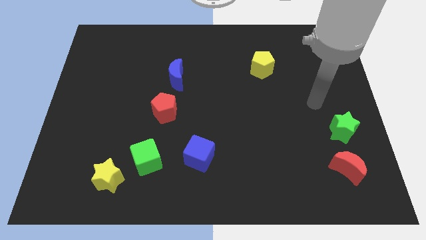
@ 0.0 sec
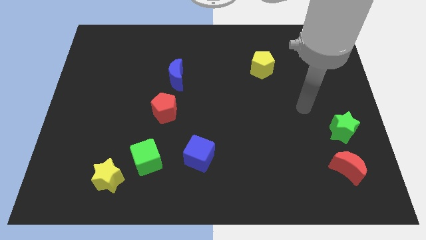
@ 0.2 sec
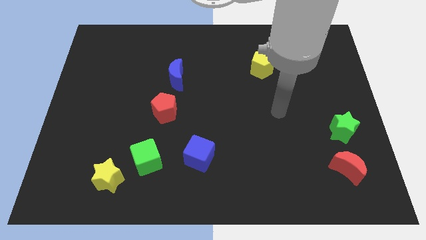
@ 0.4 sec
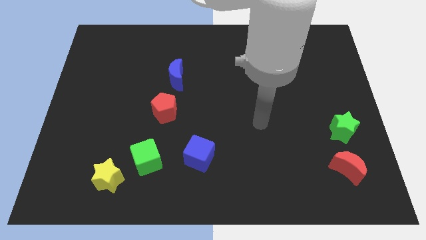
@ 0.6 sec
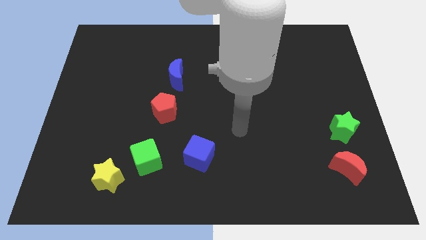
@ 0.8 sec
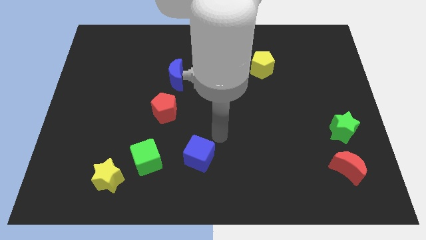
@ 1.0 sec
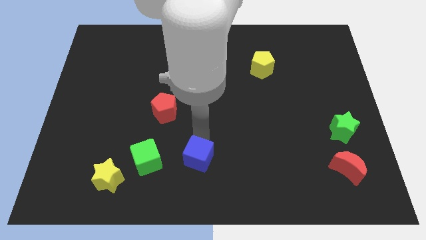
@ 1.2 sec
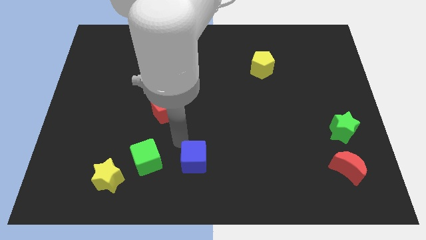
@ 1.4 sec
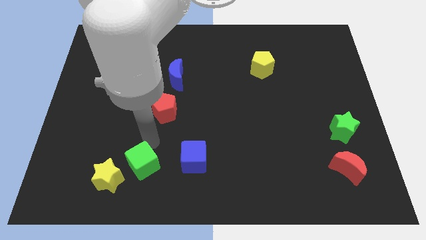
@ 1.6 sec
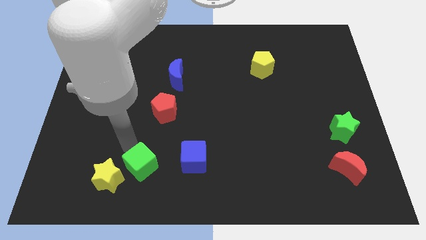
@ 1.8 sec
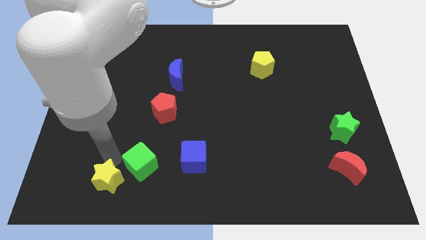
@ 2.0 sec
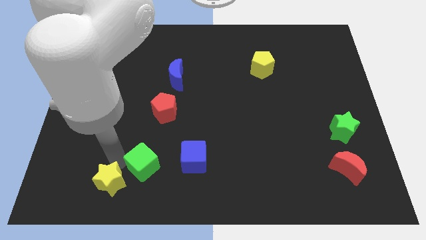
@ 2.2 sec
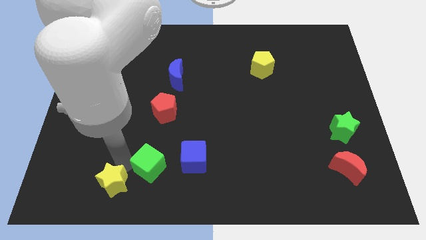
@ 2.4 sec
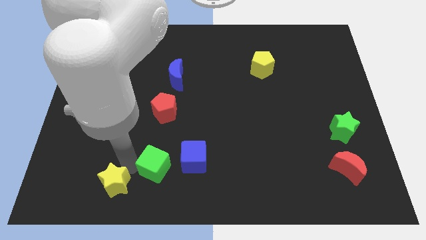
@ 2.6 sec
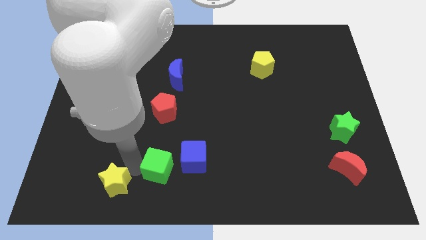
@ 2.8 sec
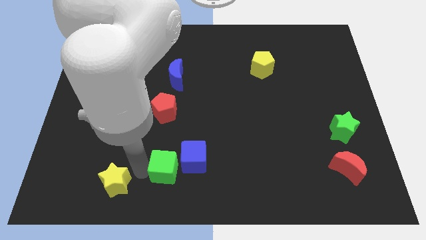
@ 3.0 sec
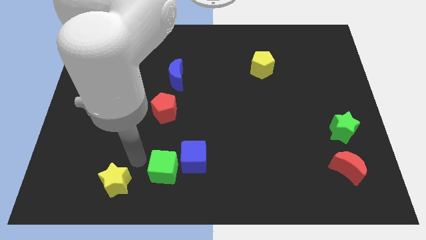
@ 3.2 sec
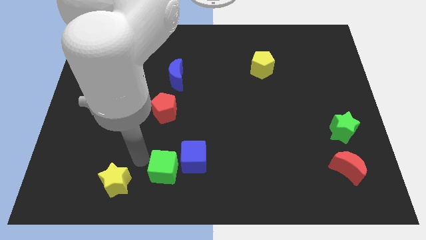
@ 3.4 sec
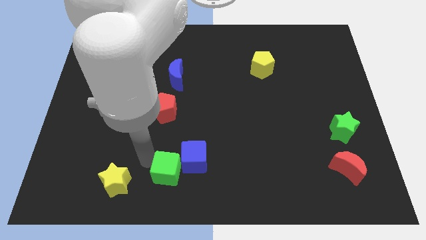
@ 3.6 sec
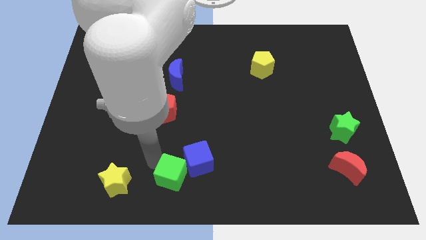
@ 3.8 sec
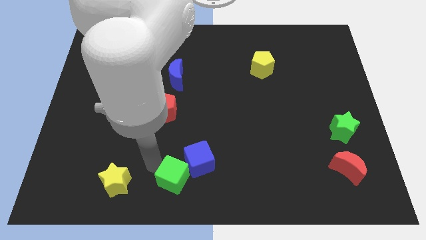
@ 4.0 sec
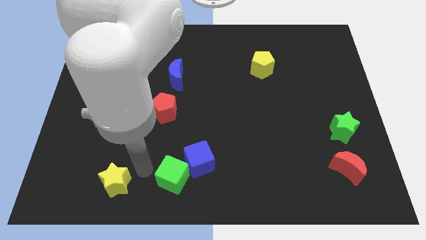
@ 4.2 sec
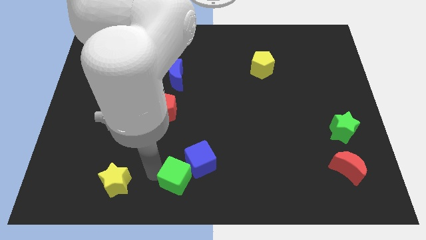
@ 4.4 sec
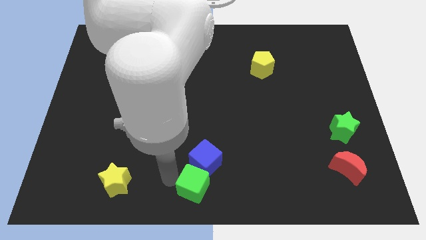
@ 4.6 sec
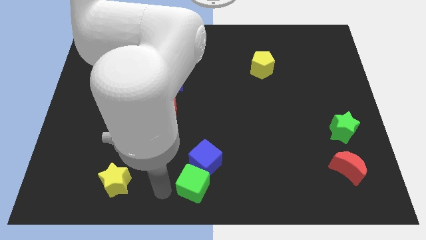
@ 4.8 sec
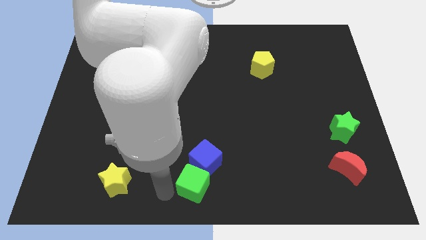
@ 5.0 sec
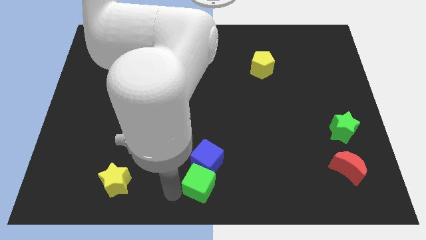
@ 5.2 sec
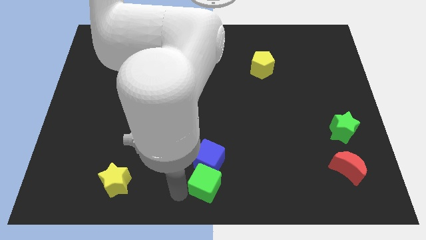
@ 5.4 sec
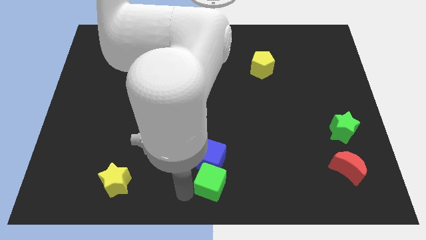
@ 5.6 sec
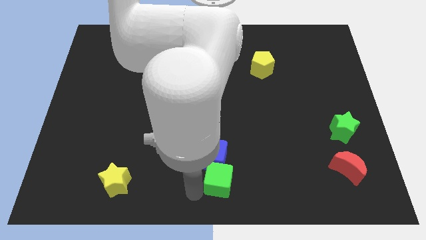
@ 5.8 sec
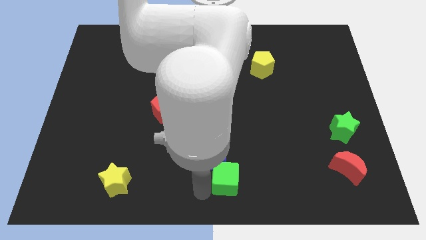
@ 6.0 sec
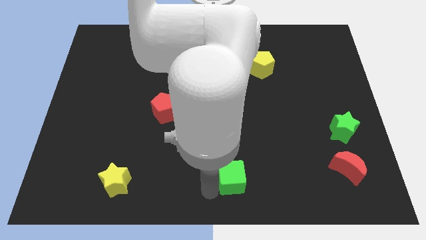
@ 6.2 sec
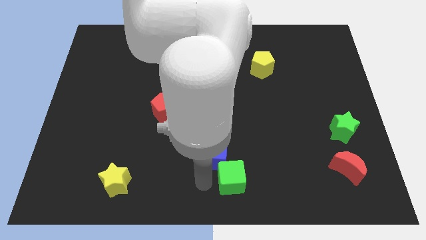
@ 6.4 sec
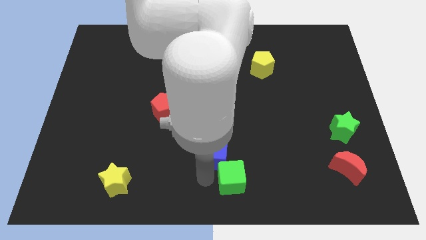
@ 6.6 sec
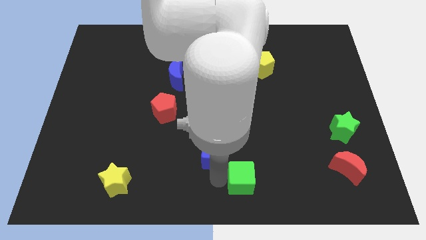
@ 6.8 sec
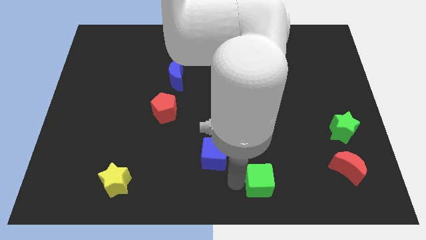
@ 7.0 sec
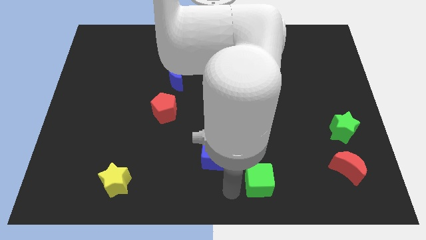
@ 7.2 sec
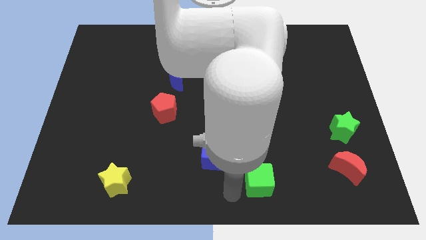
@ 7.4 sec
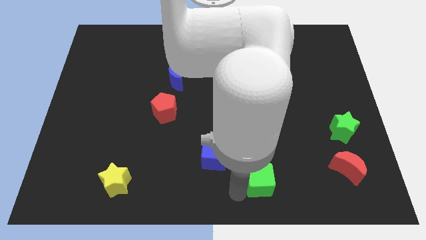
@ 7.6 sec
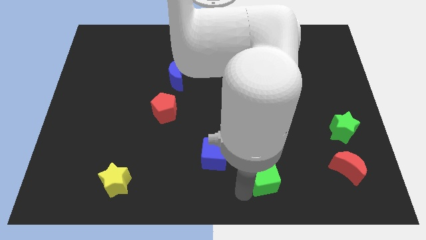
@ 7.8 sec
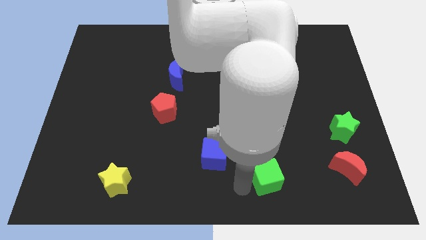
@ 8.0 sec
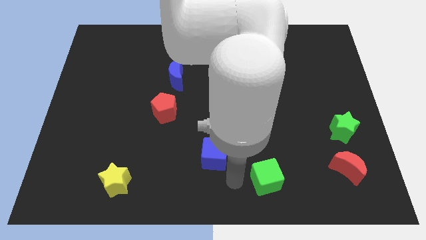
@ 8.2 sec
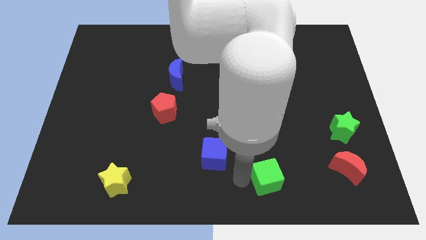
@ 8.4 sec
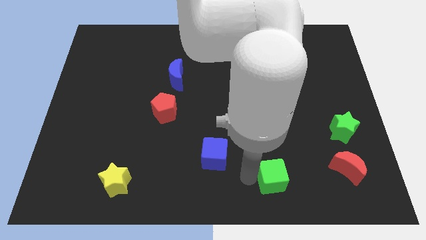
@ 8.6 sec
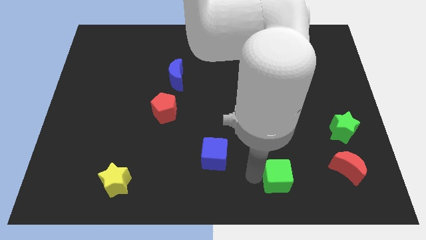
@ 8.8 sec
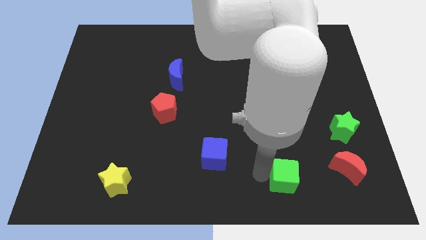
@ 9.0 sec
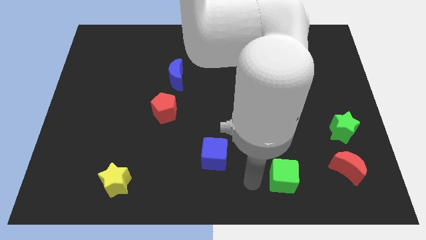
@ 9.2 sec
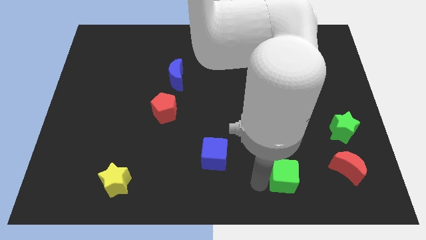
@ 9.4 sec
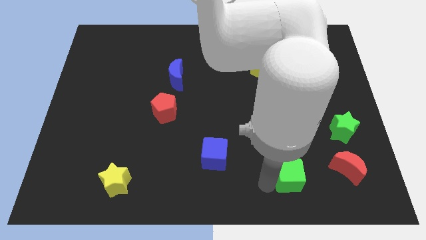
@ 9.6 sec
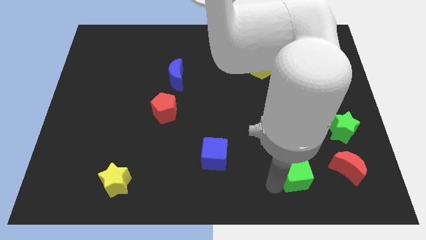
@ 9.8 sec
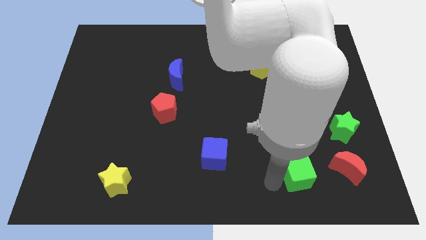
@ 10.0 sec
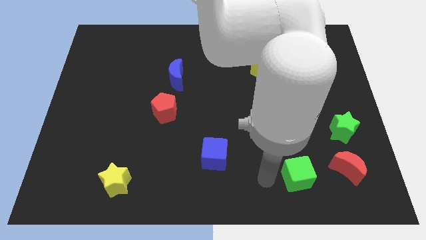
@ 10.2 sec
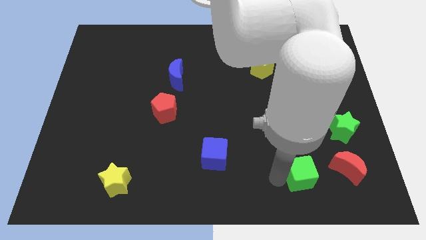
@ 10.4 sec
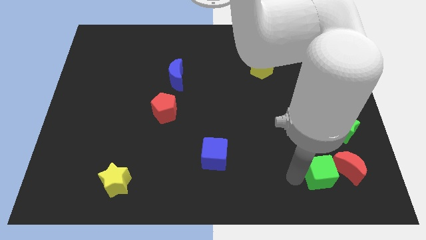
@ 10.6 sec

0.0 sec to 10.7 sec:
push the green cube next to the red moon

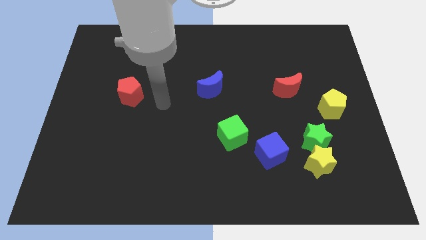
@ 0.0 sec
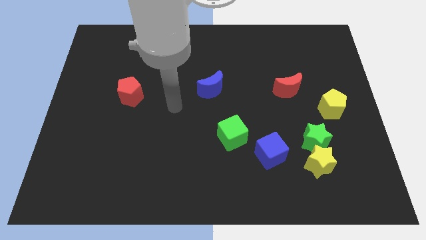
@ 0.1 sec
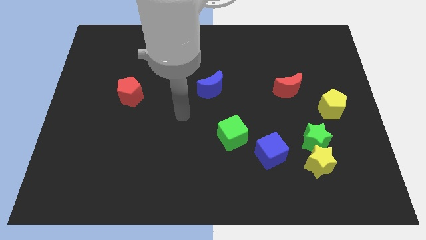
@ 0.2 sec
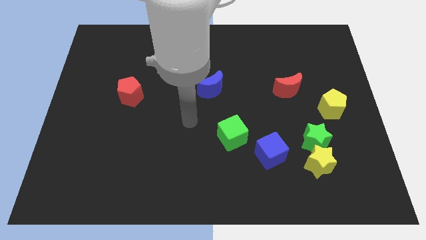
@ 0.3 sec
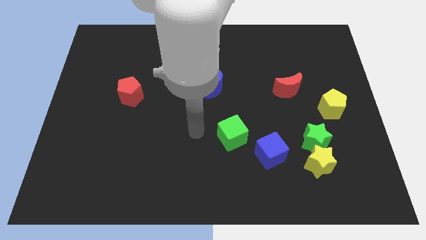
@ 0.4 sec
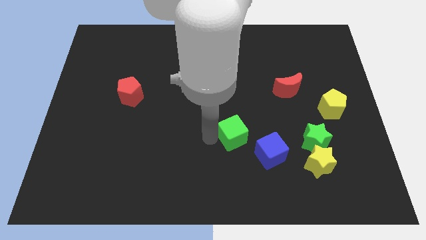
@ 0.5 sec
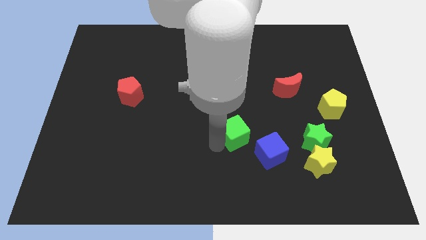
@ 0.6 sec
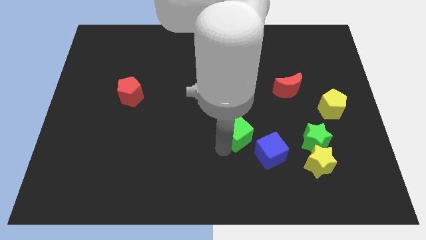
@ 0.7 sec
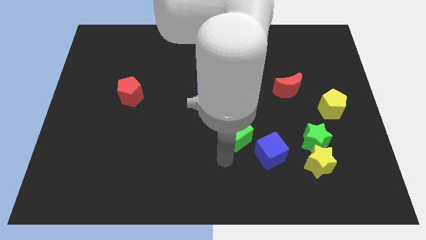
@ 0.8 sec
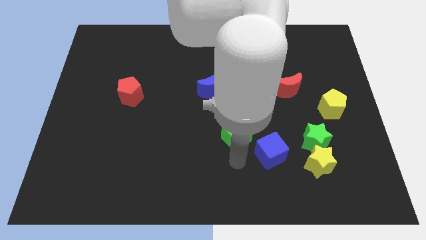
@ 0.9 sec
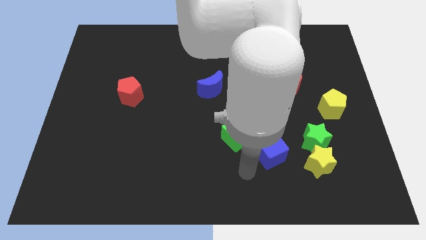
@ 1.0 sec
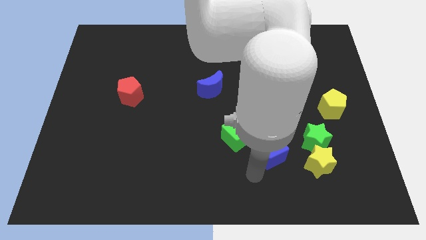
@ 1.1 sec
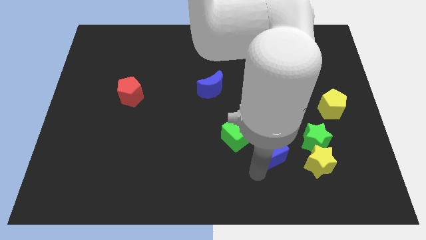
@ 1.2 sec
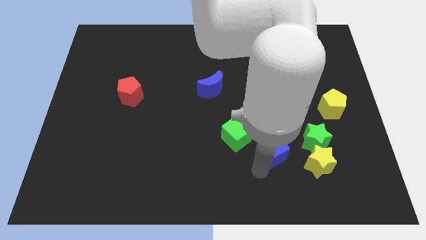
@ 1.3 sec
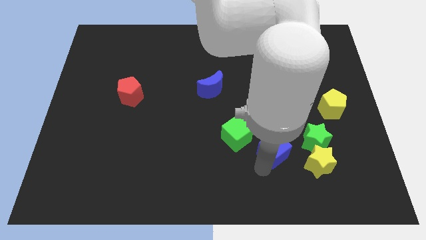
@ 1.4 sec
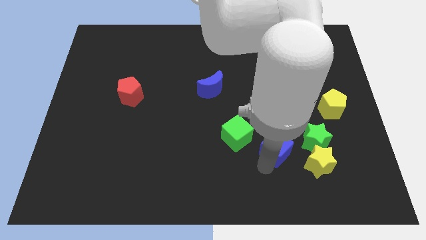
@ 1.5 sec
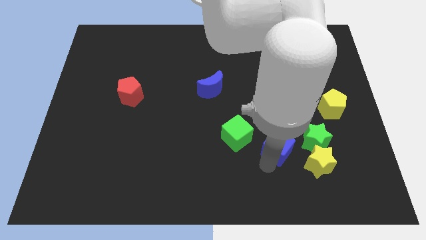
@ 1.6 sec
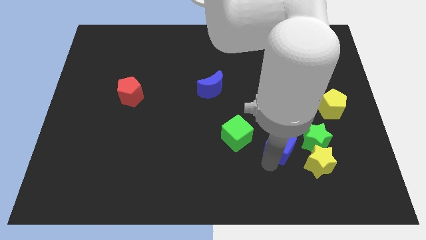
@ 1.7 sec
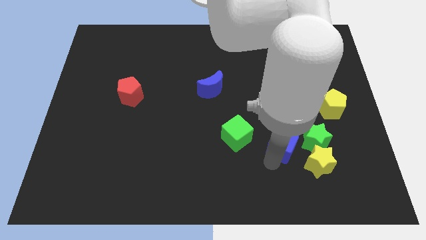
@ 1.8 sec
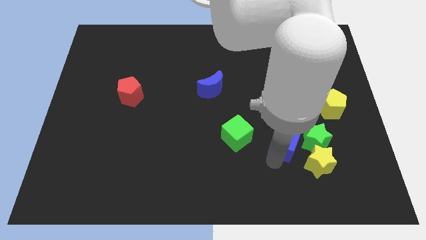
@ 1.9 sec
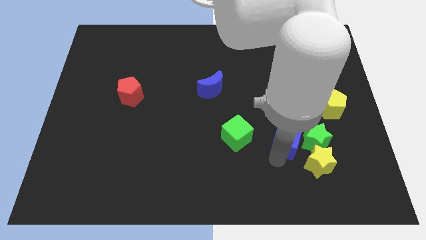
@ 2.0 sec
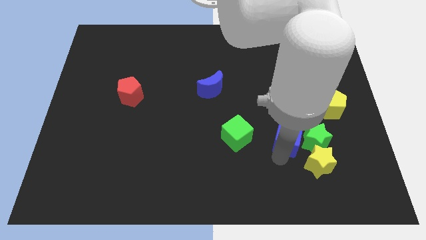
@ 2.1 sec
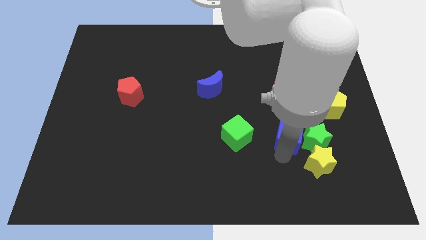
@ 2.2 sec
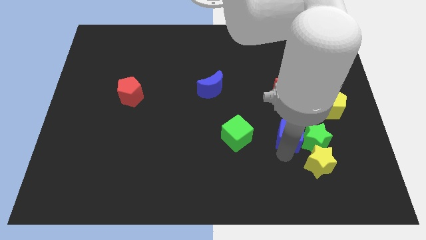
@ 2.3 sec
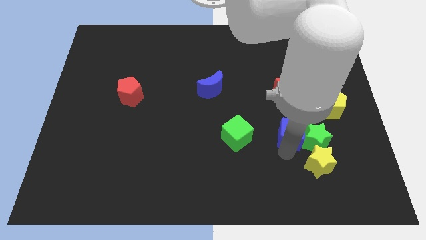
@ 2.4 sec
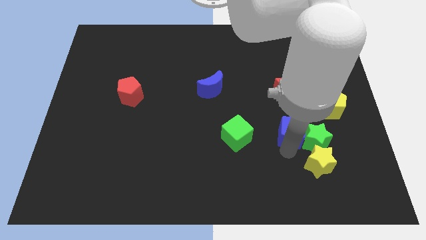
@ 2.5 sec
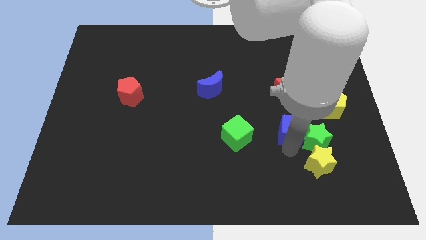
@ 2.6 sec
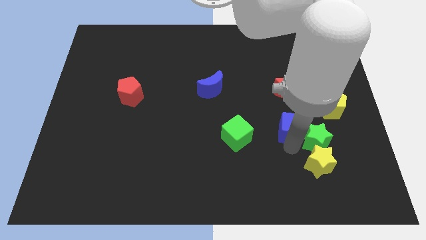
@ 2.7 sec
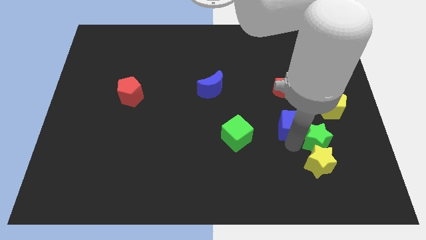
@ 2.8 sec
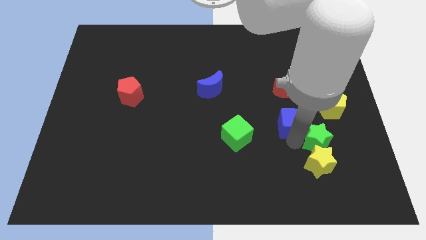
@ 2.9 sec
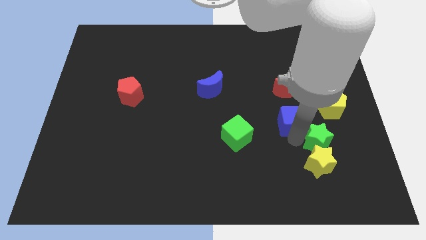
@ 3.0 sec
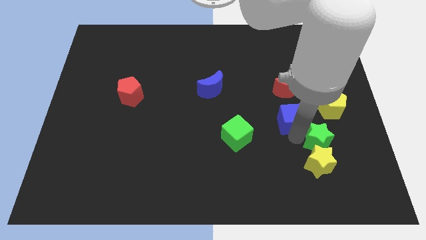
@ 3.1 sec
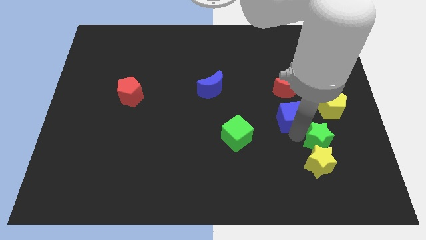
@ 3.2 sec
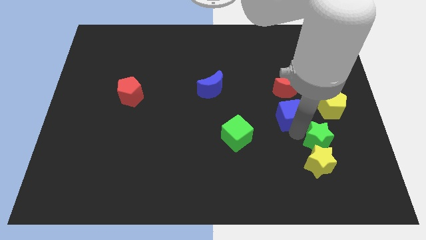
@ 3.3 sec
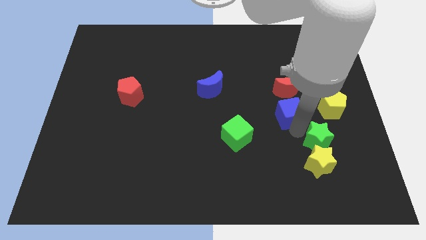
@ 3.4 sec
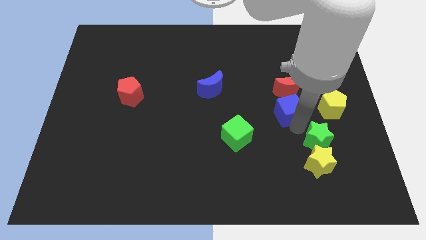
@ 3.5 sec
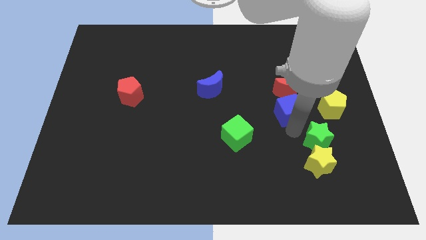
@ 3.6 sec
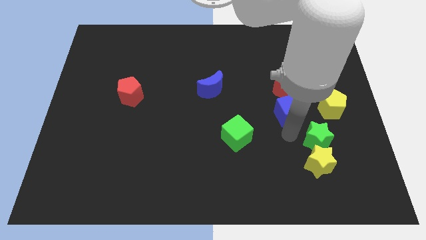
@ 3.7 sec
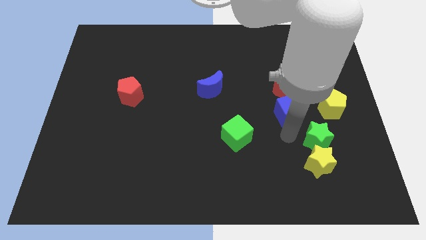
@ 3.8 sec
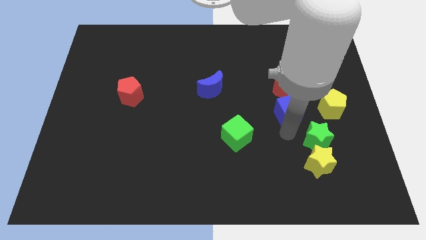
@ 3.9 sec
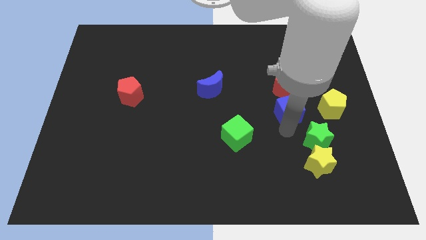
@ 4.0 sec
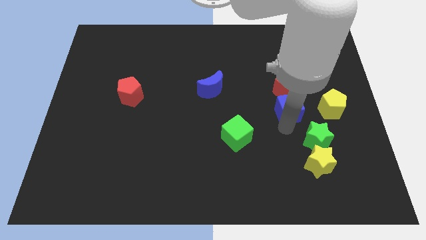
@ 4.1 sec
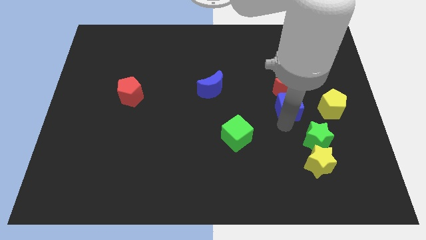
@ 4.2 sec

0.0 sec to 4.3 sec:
slide the blue cube to the red moon
